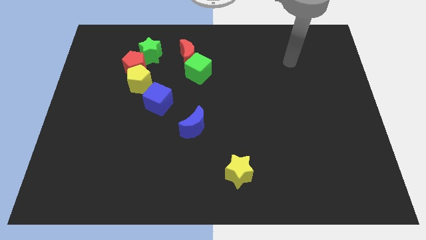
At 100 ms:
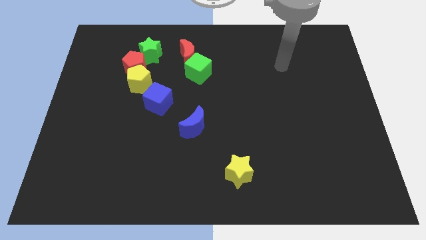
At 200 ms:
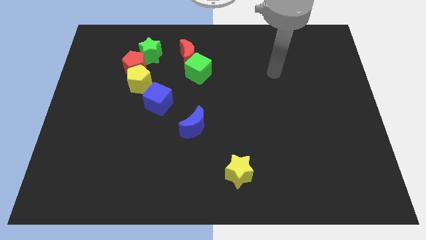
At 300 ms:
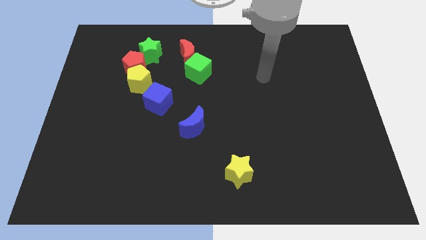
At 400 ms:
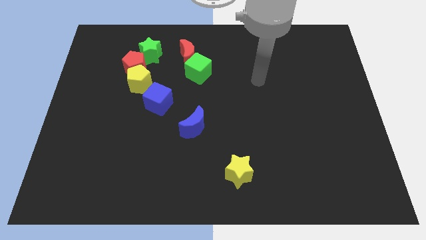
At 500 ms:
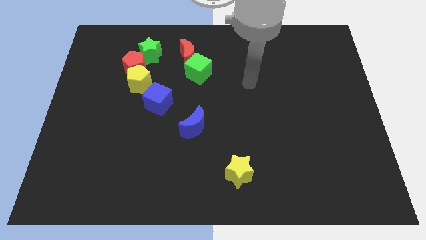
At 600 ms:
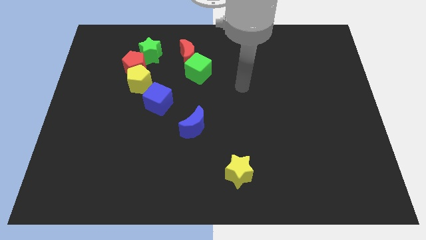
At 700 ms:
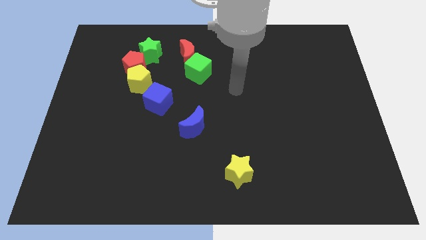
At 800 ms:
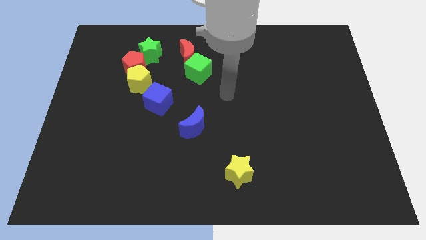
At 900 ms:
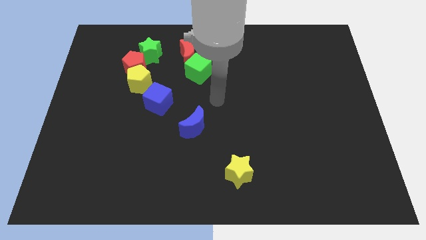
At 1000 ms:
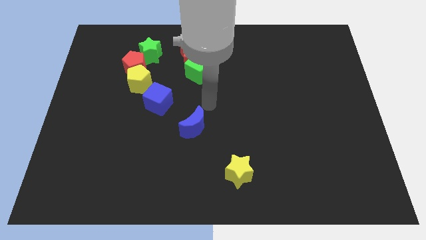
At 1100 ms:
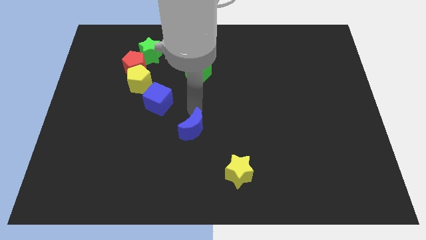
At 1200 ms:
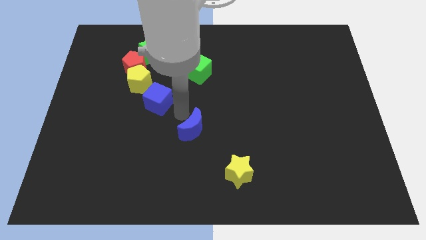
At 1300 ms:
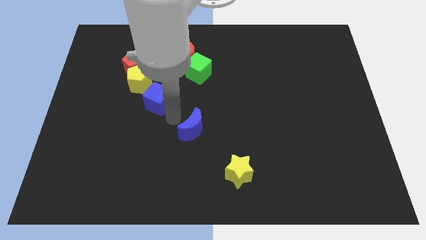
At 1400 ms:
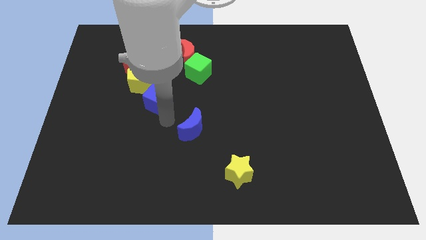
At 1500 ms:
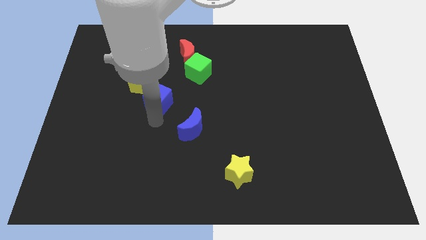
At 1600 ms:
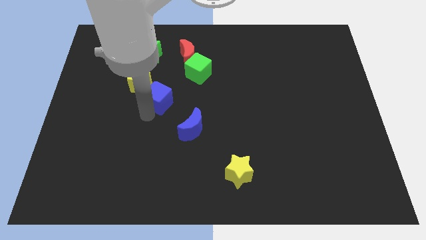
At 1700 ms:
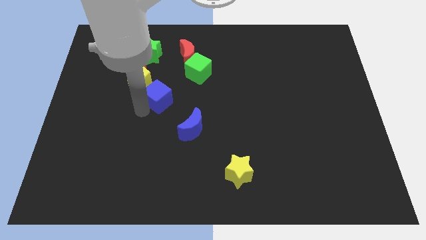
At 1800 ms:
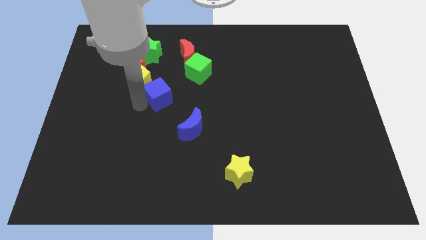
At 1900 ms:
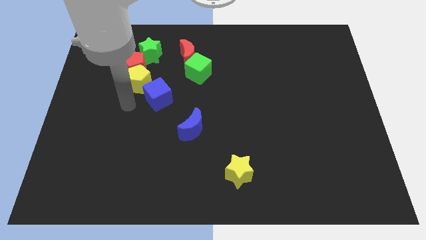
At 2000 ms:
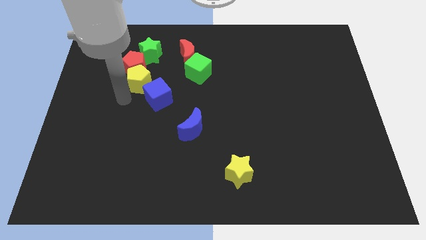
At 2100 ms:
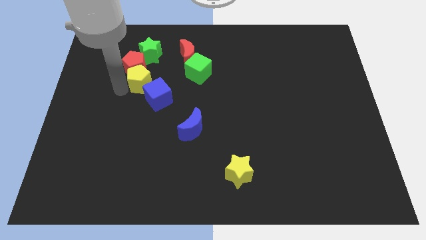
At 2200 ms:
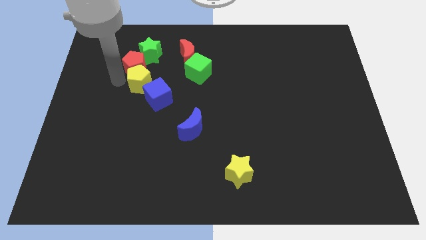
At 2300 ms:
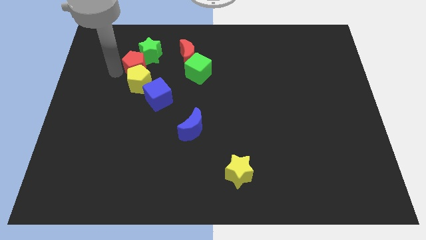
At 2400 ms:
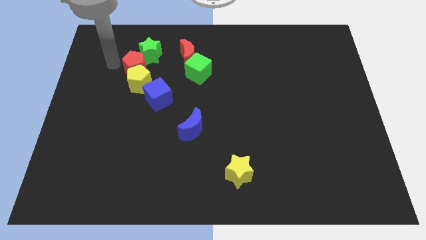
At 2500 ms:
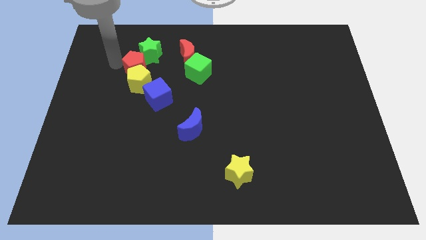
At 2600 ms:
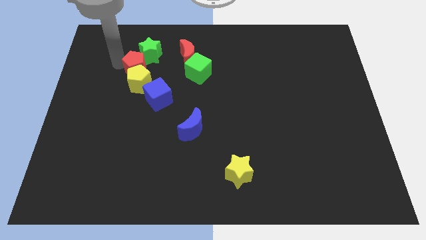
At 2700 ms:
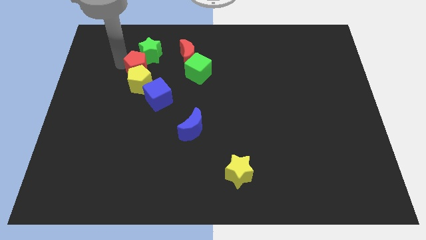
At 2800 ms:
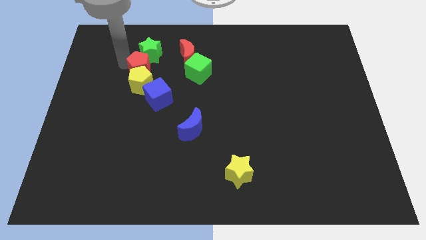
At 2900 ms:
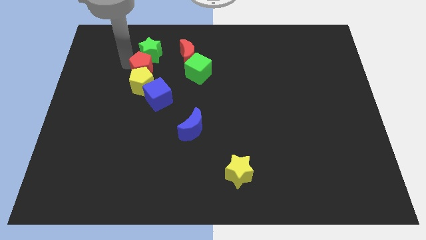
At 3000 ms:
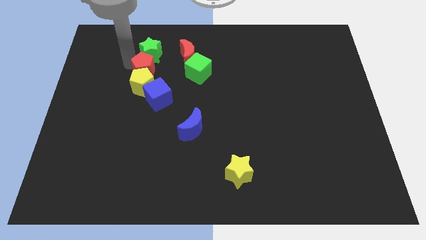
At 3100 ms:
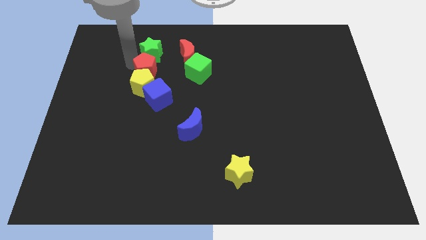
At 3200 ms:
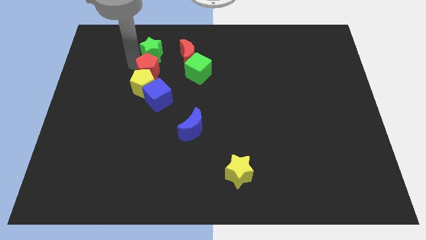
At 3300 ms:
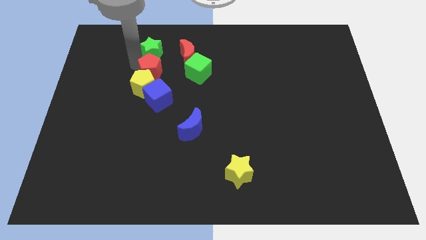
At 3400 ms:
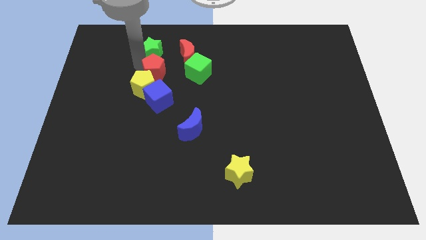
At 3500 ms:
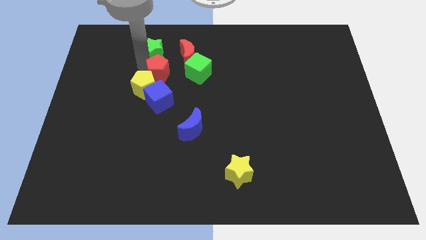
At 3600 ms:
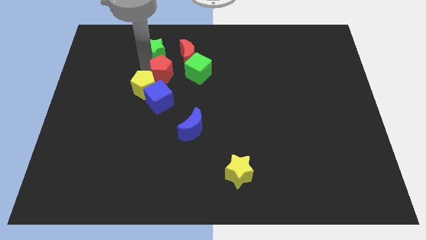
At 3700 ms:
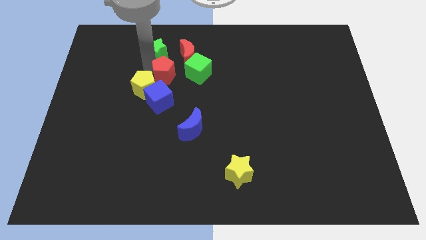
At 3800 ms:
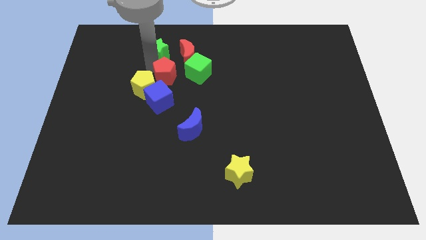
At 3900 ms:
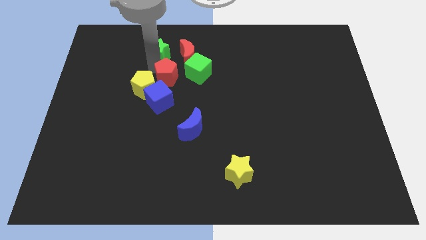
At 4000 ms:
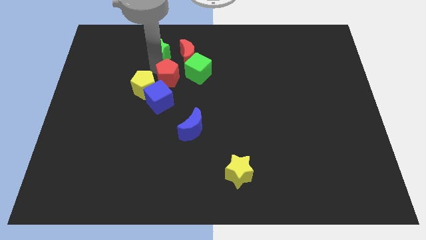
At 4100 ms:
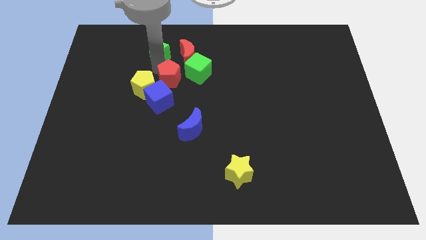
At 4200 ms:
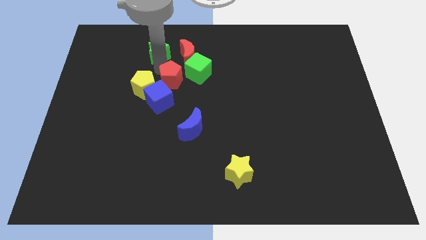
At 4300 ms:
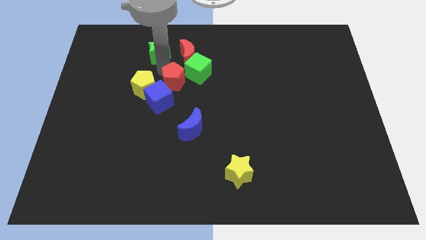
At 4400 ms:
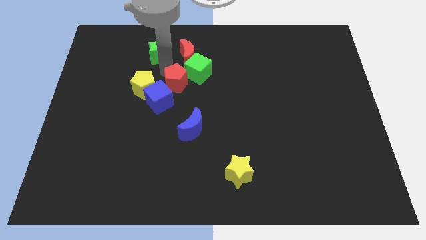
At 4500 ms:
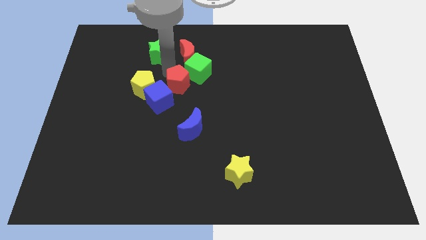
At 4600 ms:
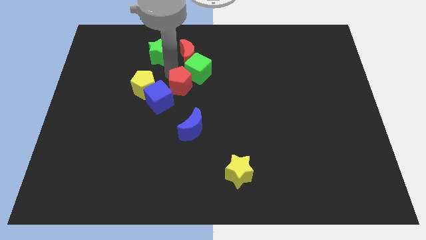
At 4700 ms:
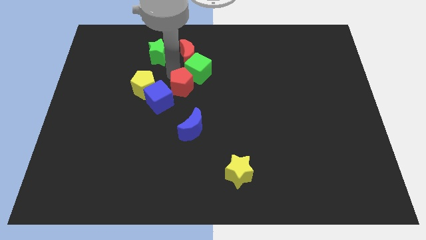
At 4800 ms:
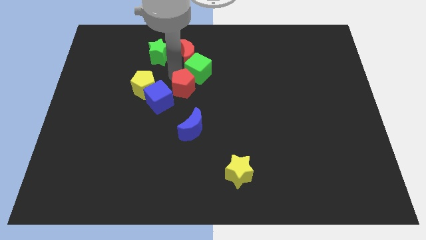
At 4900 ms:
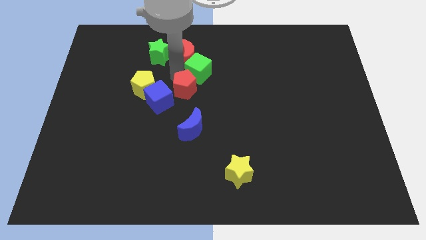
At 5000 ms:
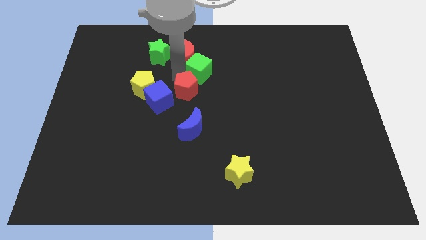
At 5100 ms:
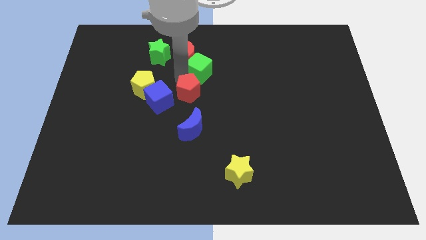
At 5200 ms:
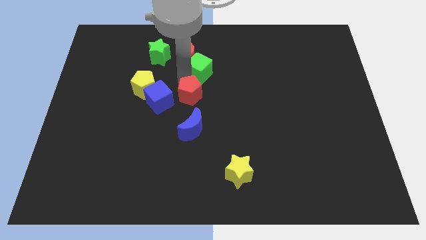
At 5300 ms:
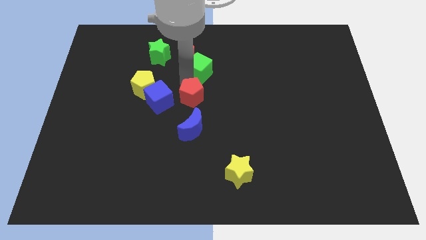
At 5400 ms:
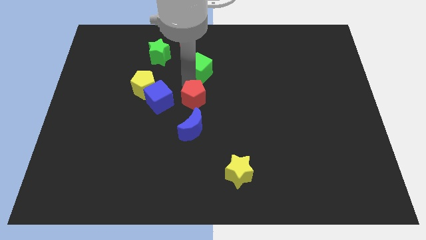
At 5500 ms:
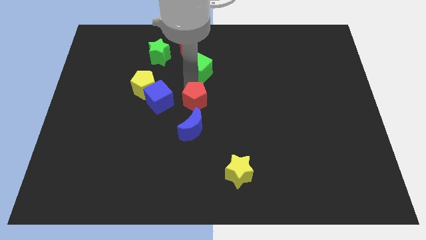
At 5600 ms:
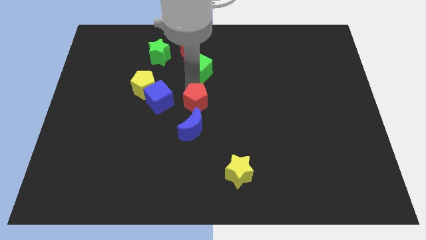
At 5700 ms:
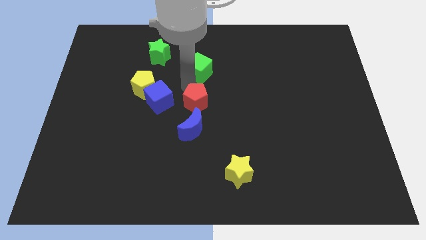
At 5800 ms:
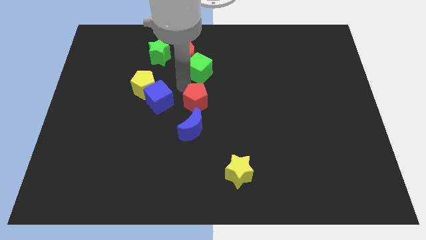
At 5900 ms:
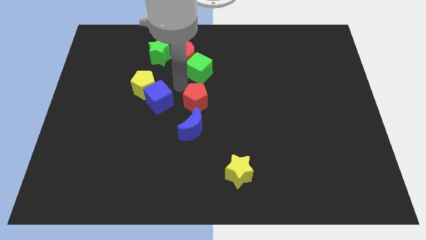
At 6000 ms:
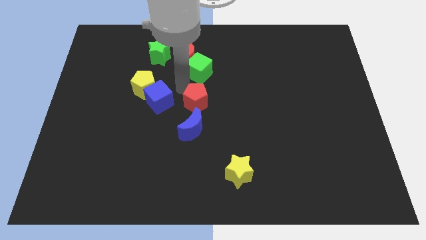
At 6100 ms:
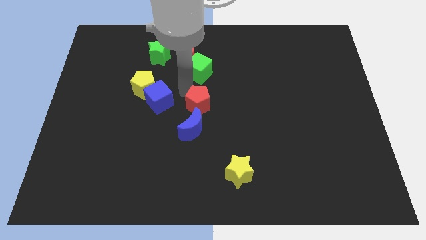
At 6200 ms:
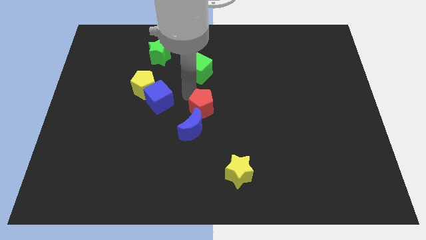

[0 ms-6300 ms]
move the red pentagon down and then to the right

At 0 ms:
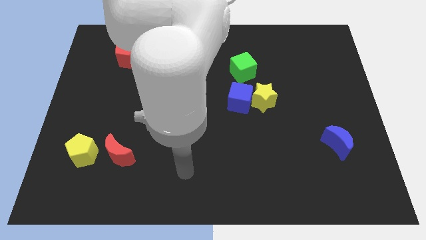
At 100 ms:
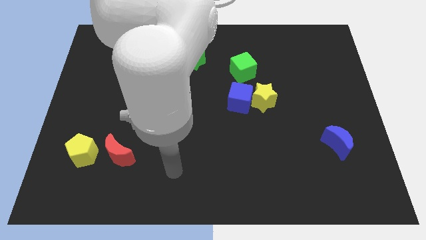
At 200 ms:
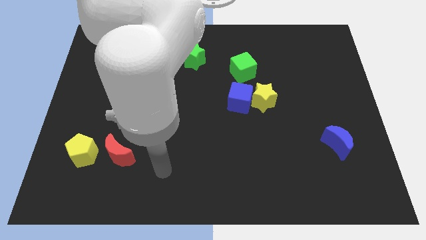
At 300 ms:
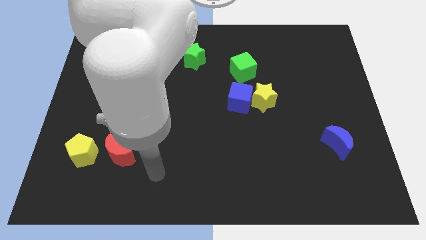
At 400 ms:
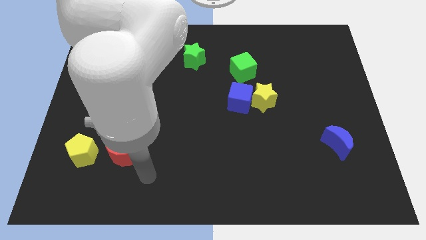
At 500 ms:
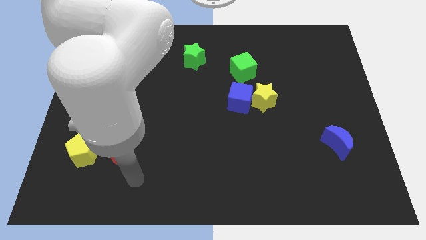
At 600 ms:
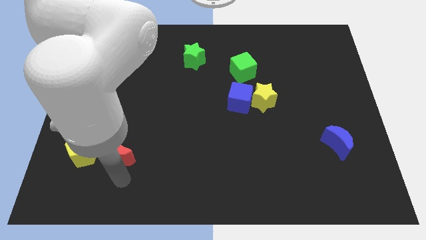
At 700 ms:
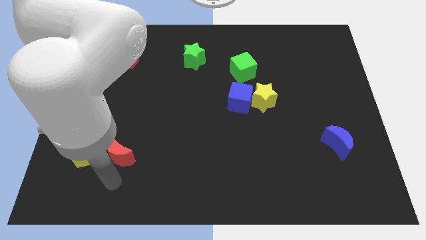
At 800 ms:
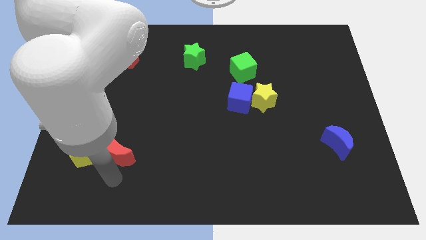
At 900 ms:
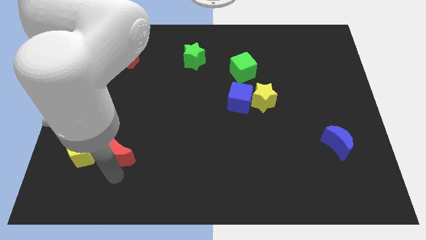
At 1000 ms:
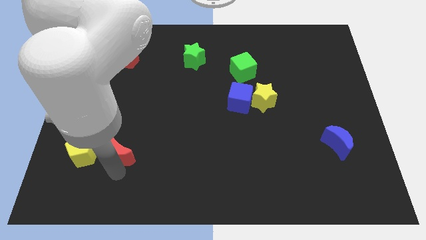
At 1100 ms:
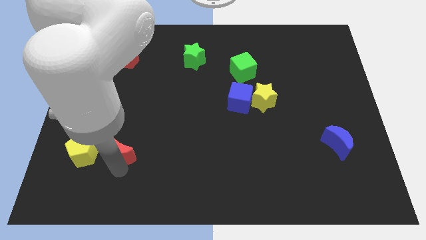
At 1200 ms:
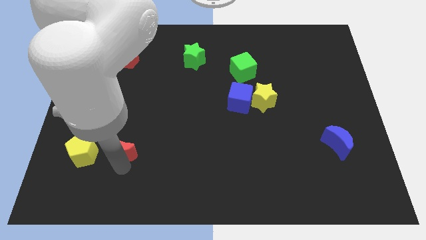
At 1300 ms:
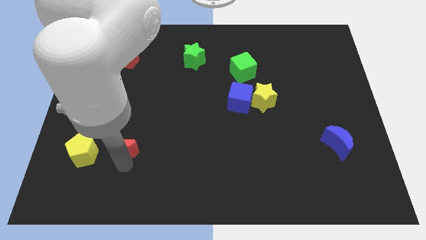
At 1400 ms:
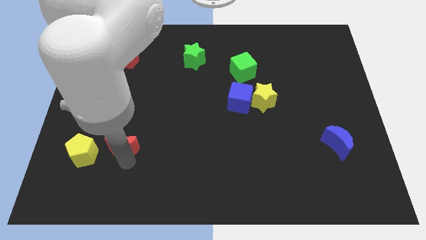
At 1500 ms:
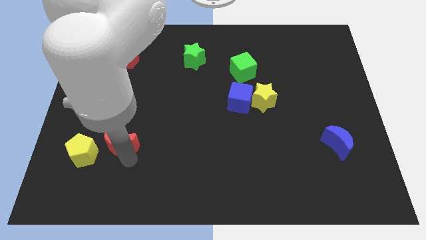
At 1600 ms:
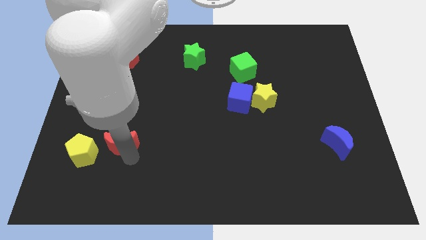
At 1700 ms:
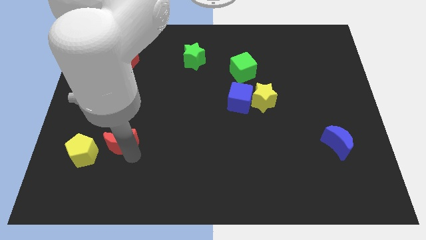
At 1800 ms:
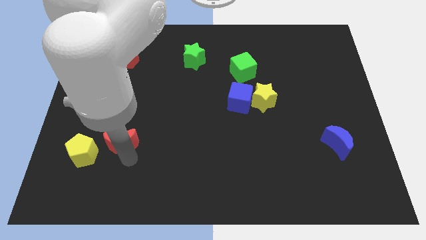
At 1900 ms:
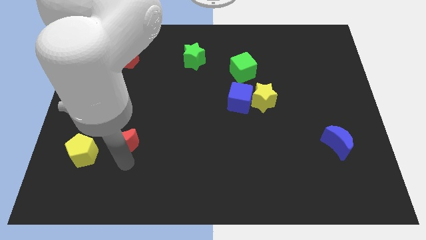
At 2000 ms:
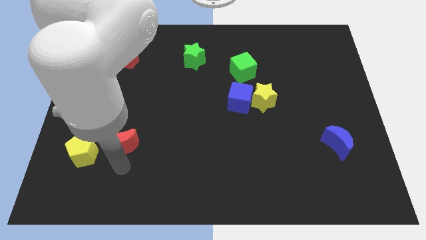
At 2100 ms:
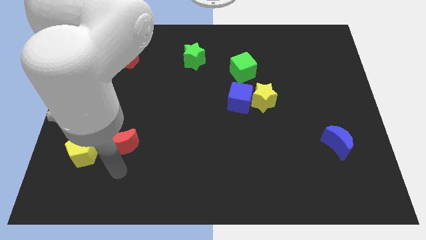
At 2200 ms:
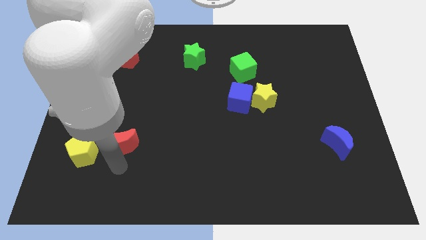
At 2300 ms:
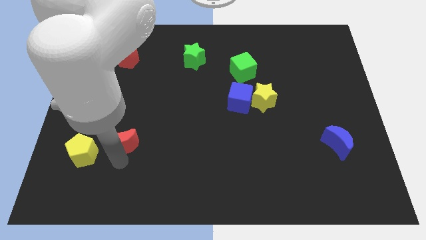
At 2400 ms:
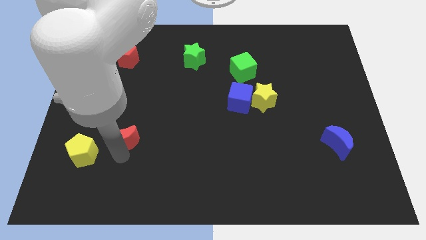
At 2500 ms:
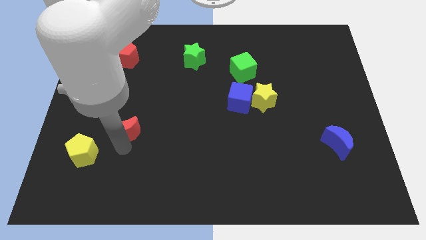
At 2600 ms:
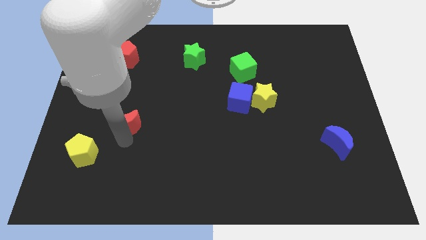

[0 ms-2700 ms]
push the red moon a little upwards
